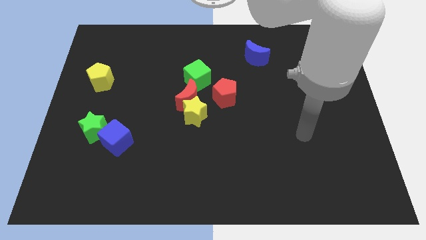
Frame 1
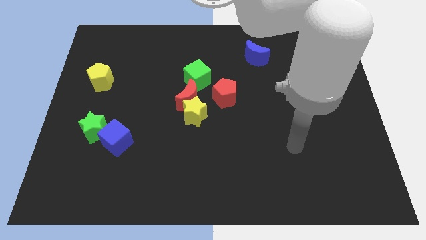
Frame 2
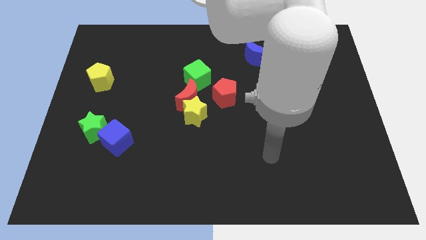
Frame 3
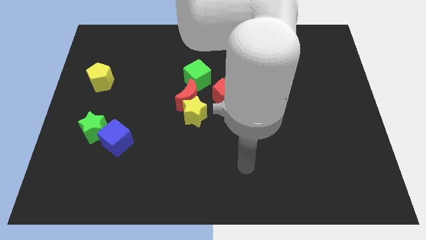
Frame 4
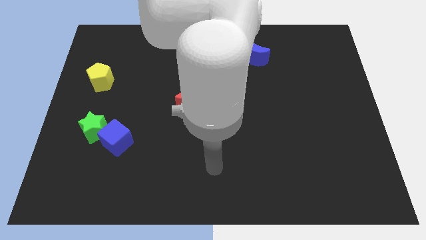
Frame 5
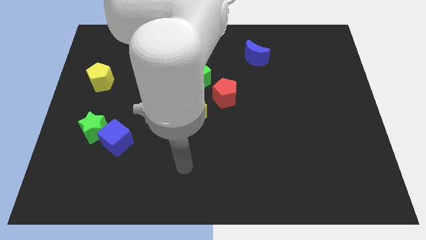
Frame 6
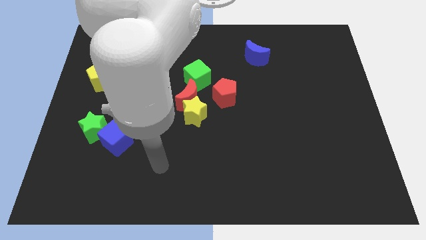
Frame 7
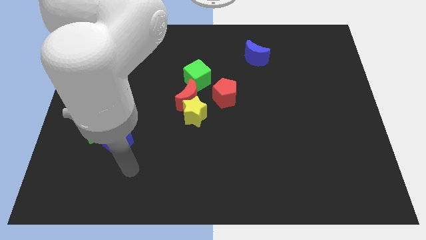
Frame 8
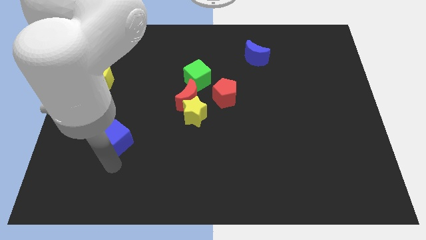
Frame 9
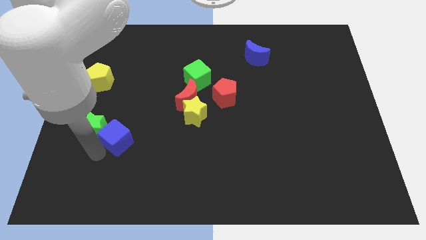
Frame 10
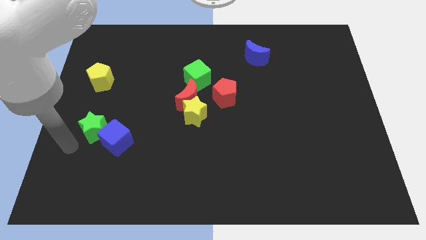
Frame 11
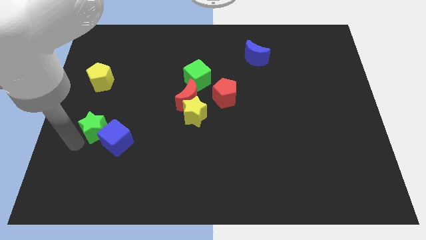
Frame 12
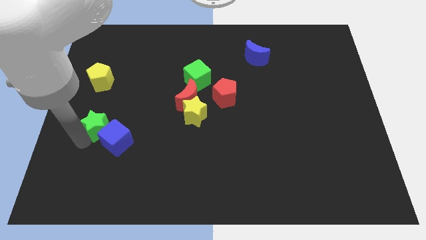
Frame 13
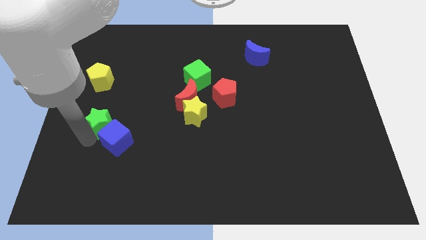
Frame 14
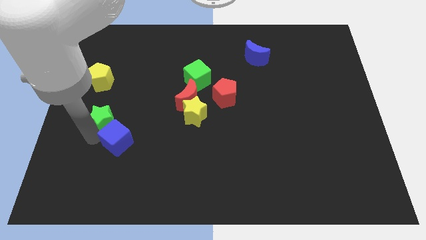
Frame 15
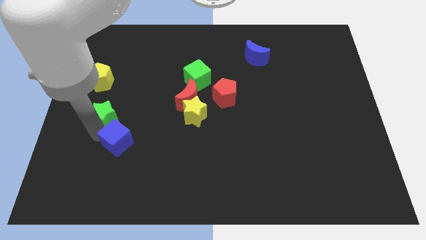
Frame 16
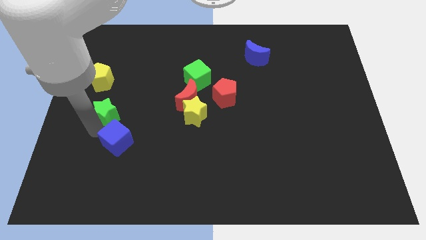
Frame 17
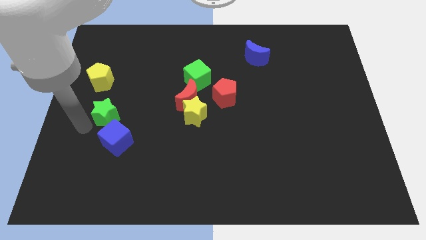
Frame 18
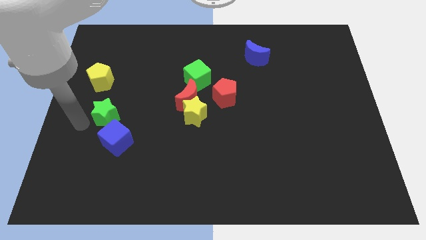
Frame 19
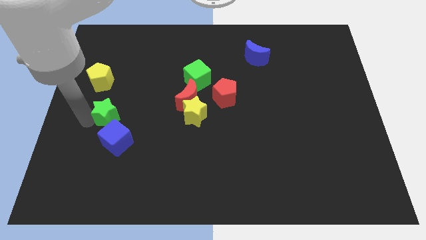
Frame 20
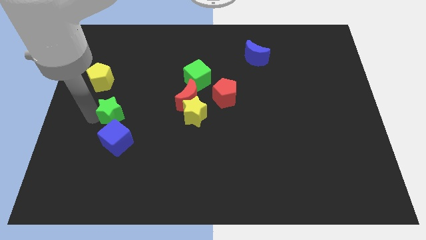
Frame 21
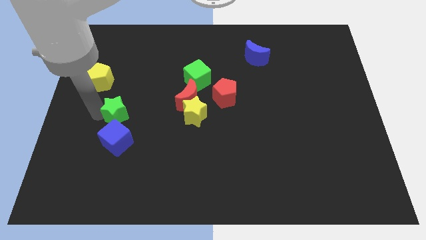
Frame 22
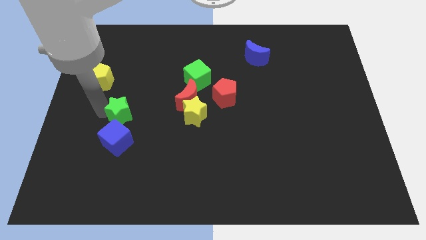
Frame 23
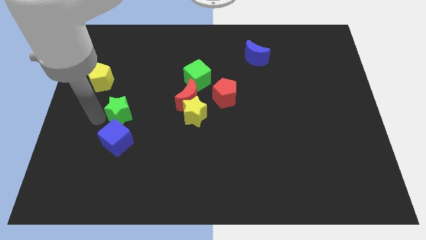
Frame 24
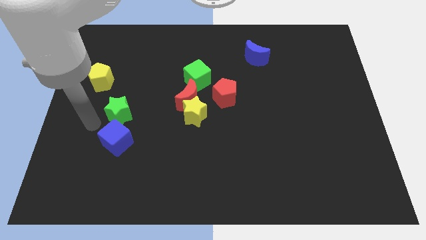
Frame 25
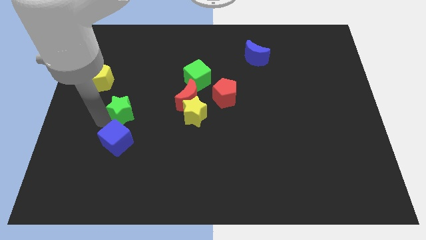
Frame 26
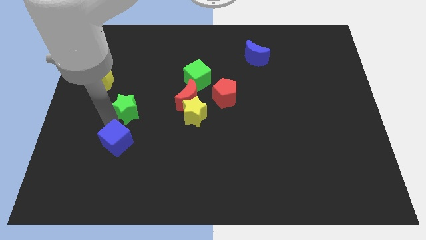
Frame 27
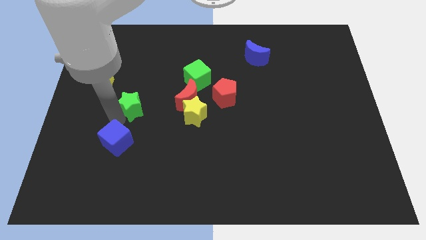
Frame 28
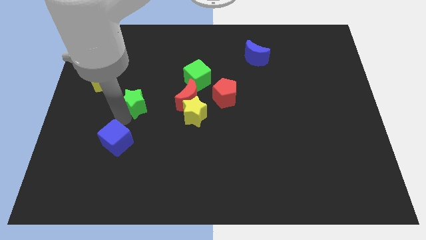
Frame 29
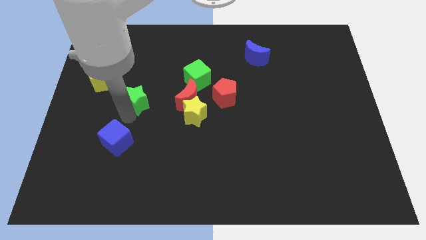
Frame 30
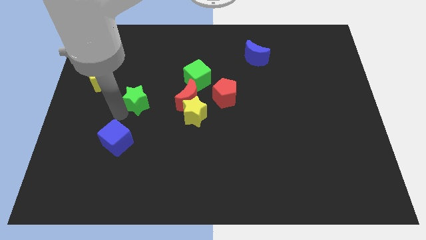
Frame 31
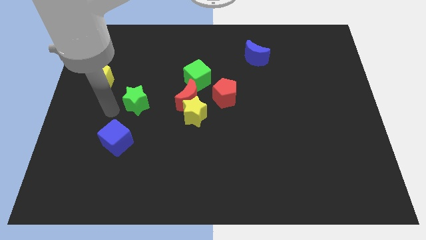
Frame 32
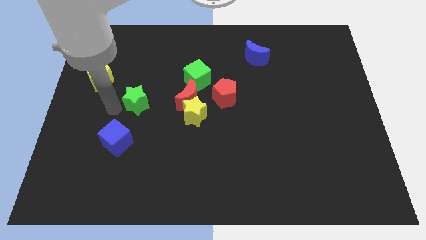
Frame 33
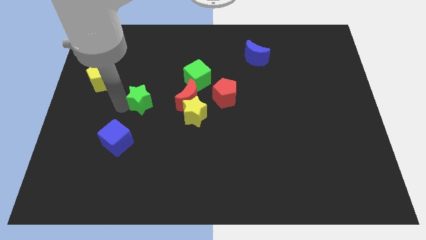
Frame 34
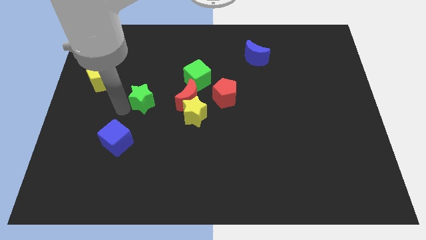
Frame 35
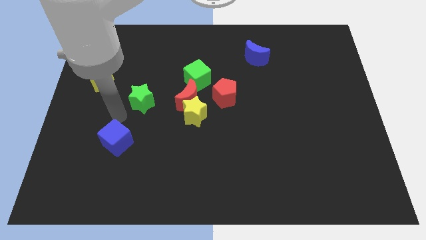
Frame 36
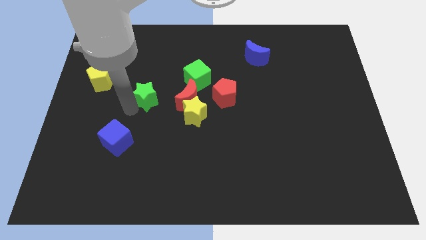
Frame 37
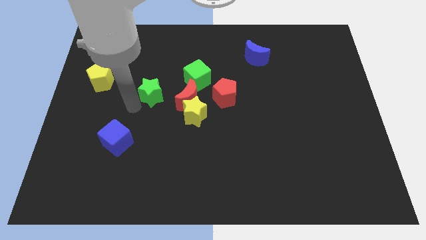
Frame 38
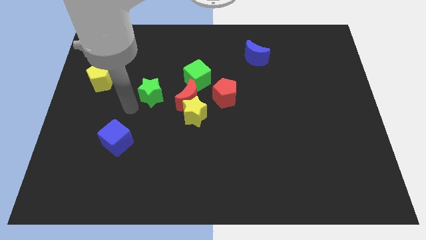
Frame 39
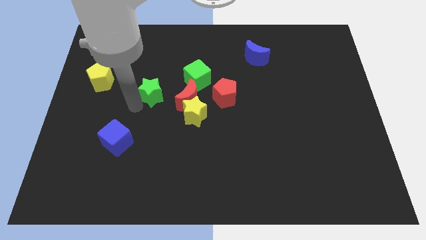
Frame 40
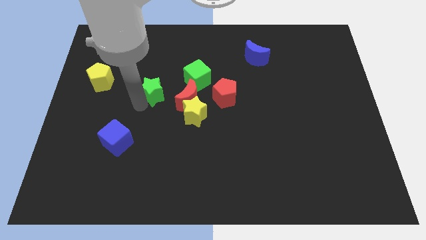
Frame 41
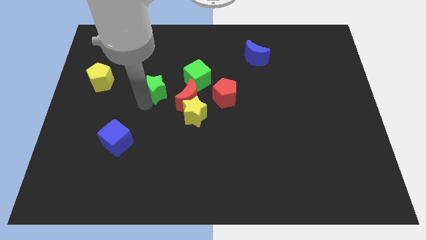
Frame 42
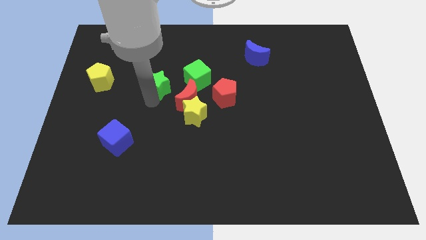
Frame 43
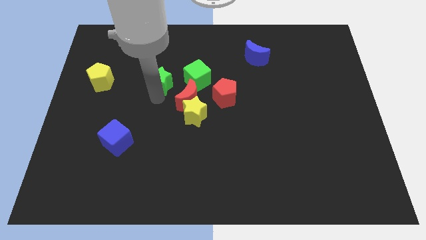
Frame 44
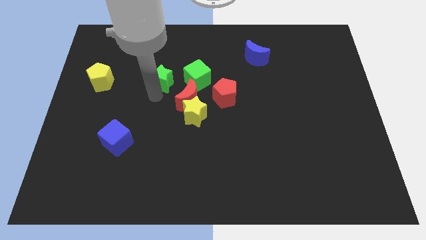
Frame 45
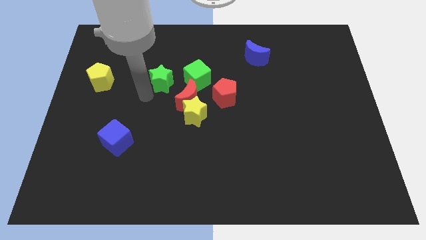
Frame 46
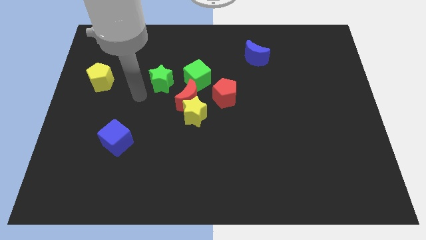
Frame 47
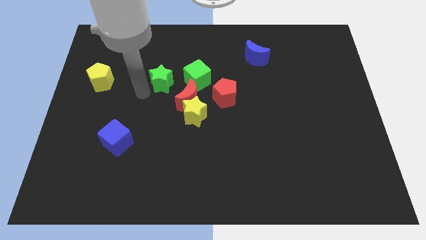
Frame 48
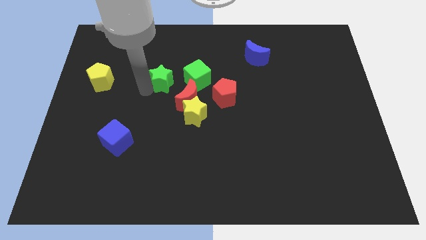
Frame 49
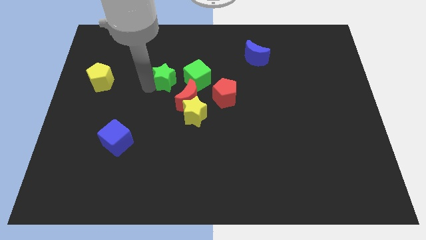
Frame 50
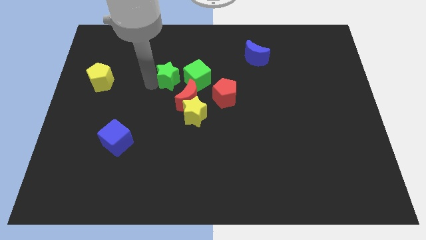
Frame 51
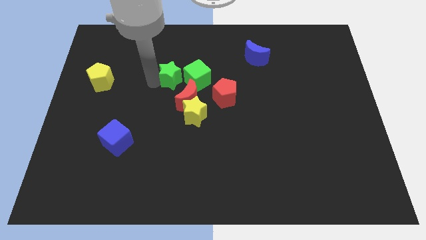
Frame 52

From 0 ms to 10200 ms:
slide the green star to the top side of the red moon

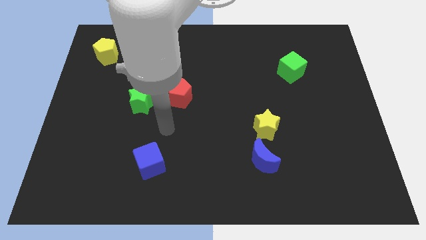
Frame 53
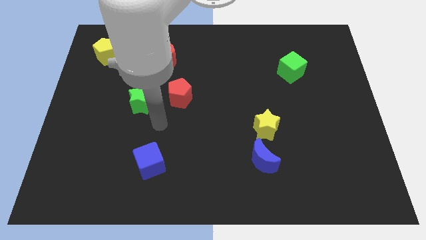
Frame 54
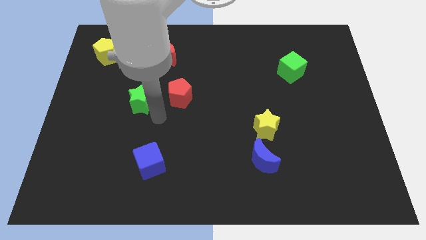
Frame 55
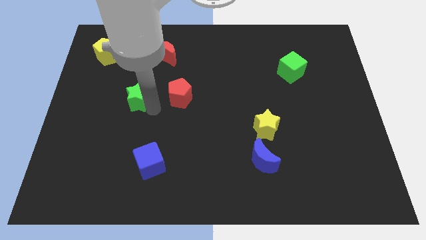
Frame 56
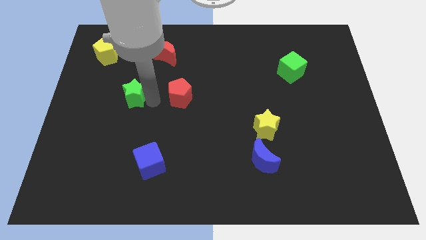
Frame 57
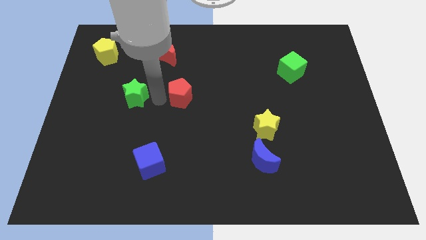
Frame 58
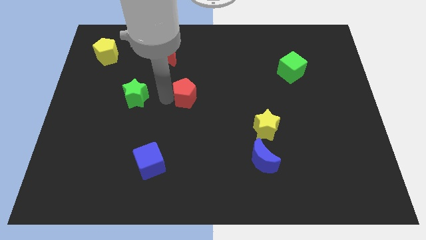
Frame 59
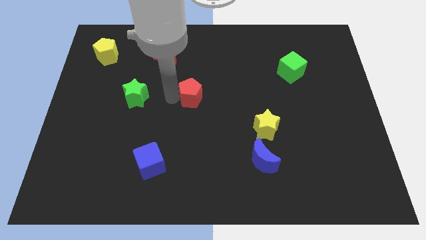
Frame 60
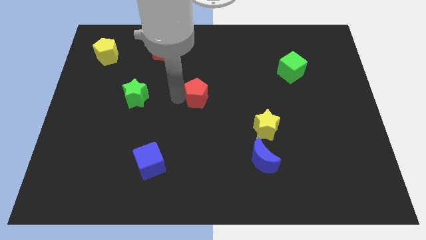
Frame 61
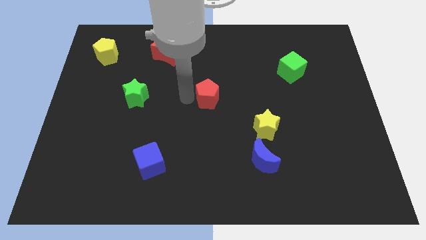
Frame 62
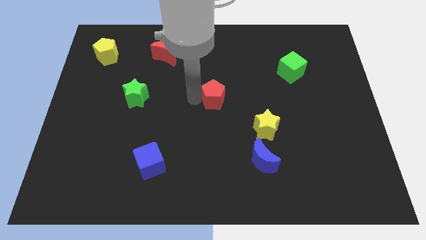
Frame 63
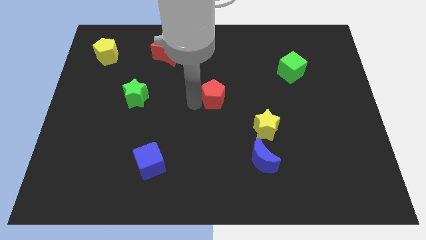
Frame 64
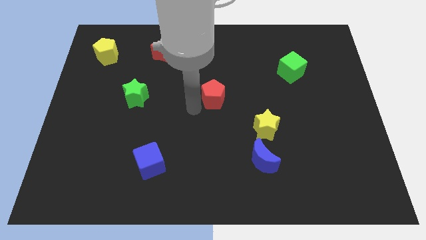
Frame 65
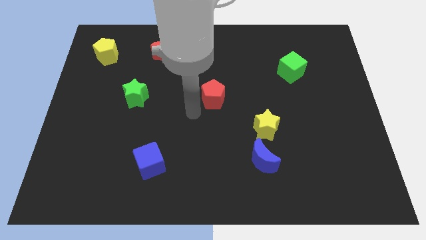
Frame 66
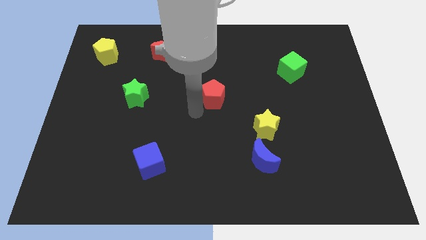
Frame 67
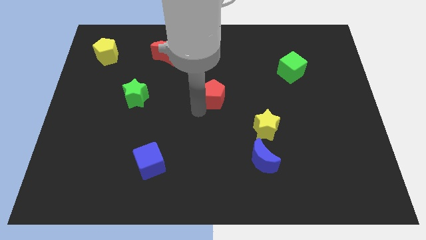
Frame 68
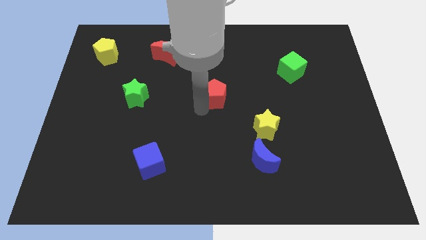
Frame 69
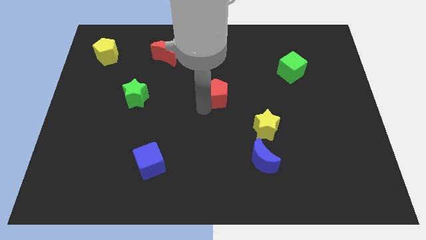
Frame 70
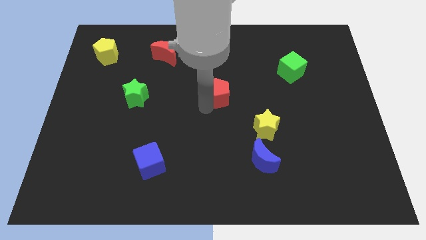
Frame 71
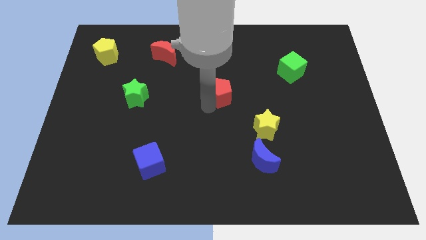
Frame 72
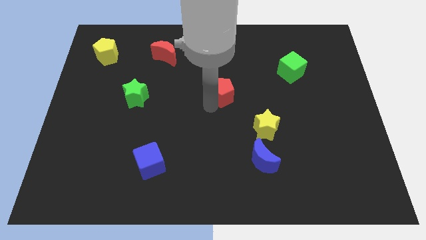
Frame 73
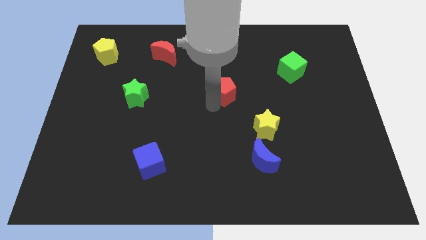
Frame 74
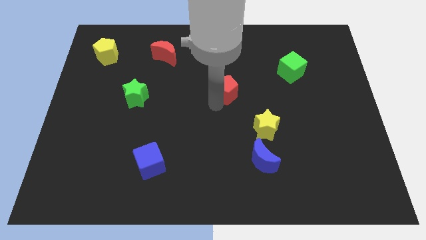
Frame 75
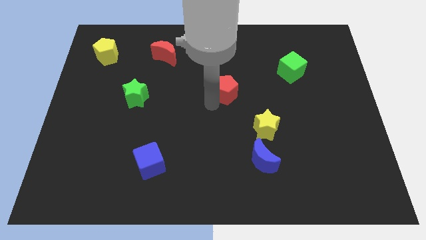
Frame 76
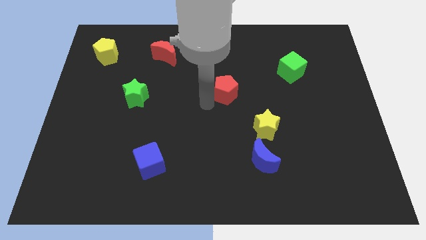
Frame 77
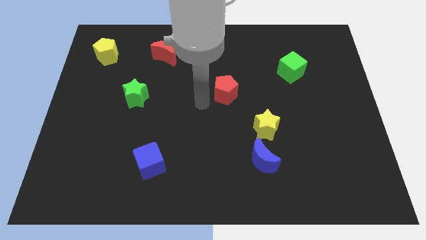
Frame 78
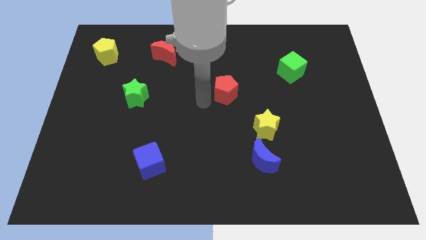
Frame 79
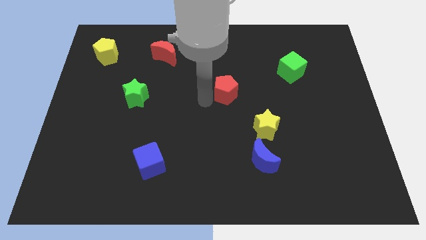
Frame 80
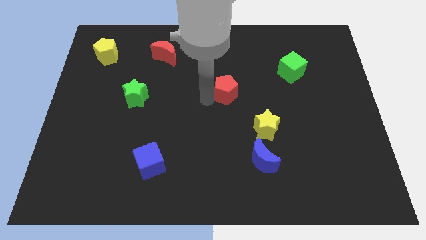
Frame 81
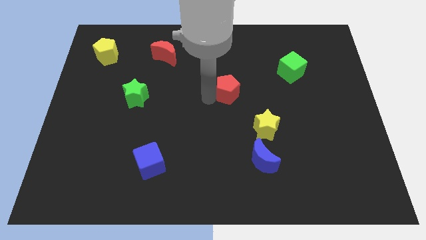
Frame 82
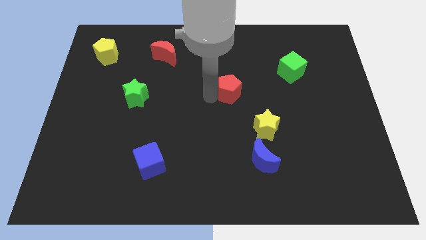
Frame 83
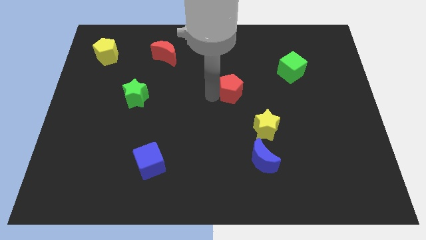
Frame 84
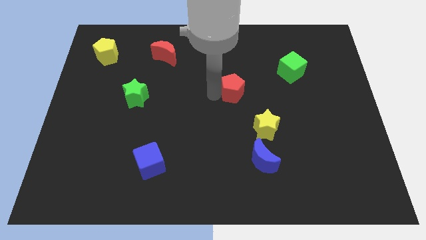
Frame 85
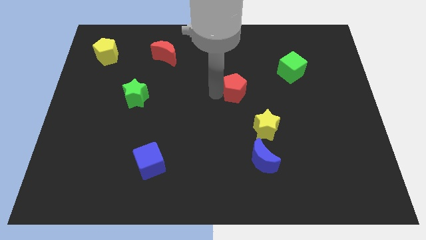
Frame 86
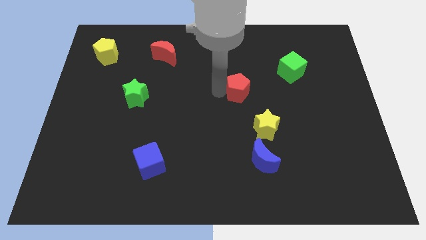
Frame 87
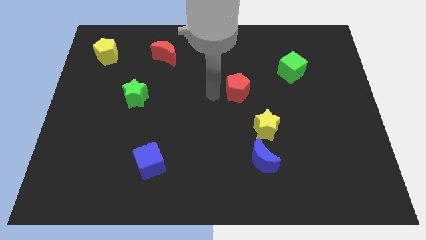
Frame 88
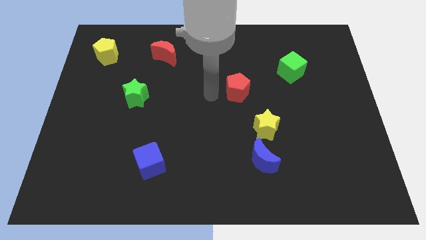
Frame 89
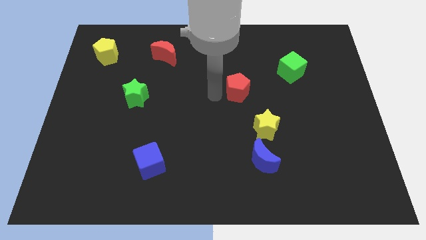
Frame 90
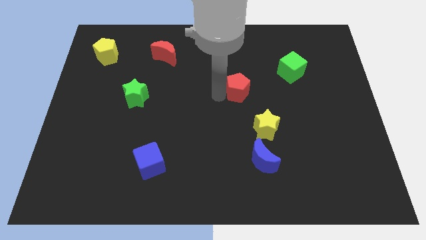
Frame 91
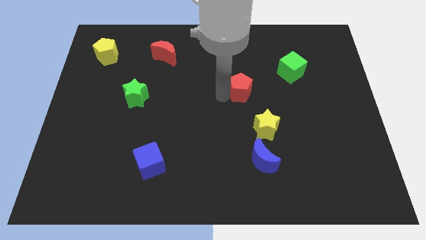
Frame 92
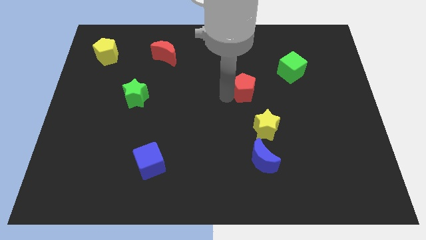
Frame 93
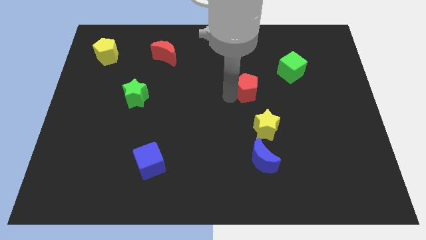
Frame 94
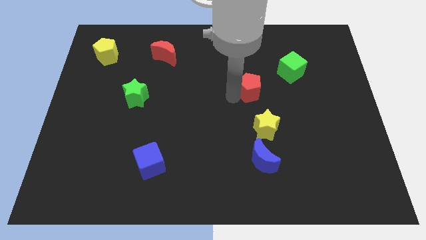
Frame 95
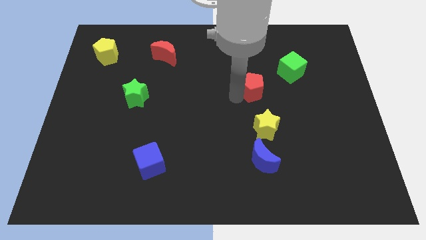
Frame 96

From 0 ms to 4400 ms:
put the red pentagon to the bottom left of the green cube
